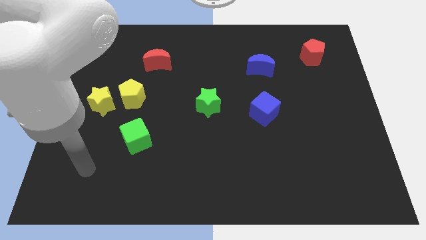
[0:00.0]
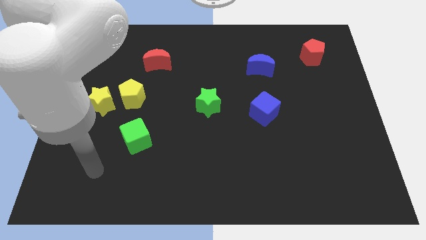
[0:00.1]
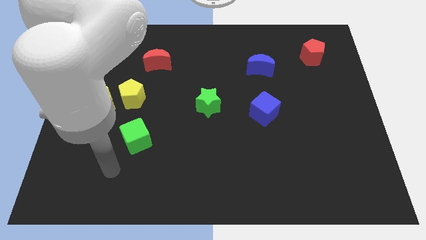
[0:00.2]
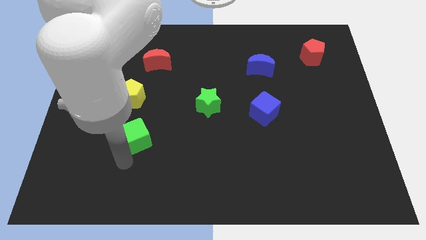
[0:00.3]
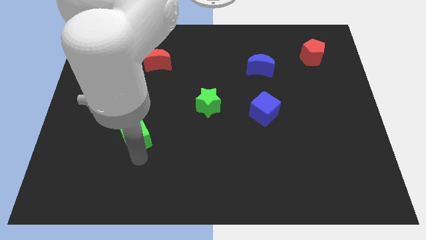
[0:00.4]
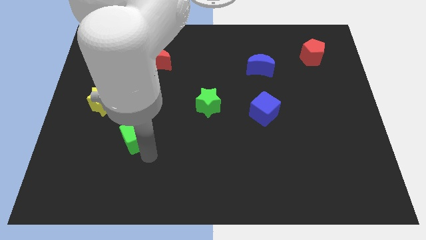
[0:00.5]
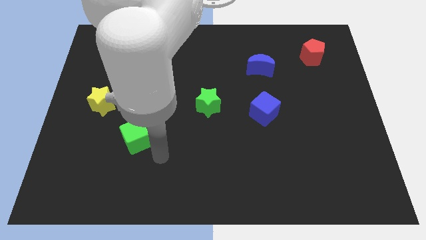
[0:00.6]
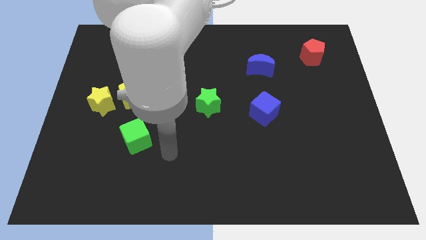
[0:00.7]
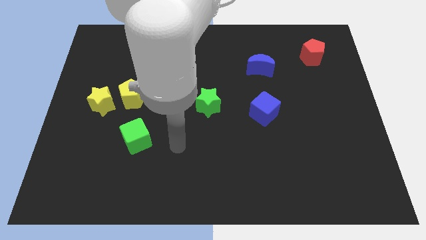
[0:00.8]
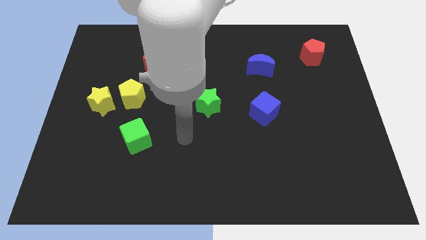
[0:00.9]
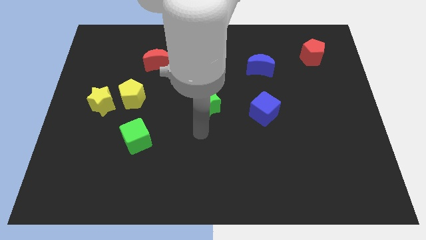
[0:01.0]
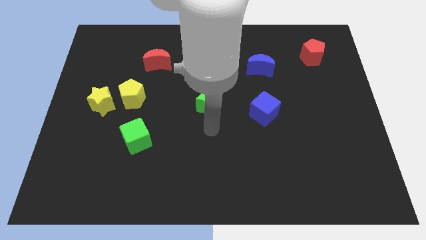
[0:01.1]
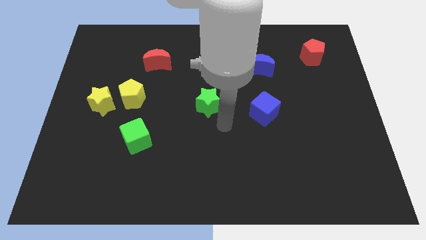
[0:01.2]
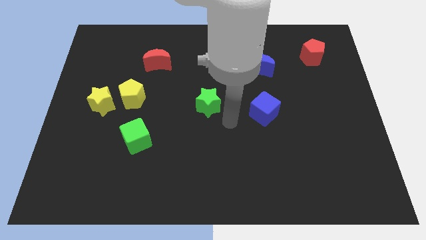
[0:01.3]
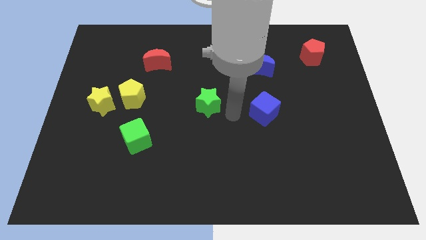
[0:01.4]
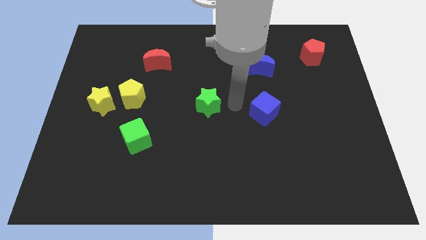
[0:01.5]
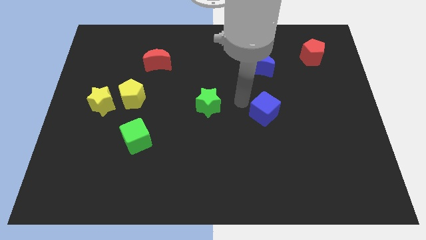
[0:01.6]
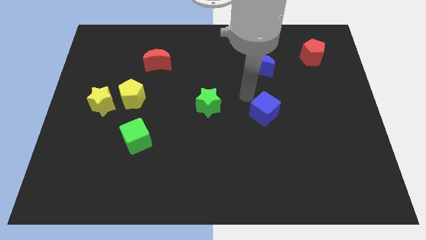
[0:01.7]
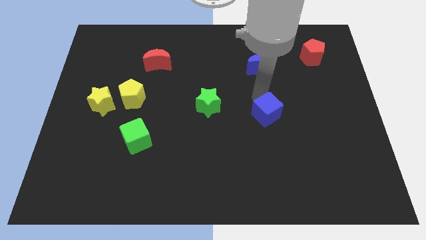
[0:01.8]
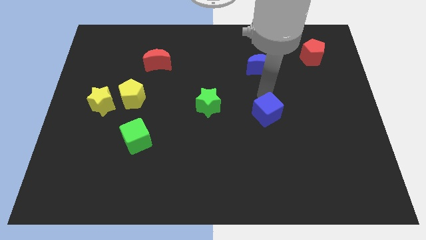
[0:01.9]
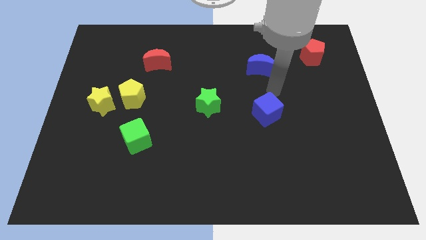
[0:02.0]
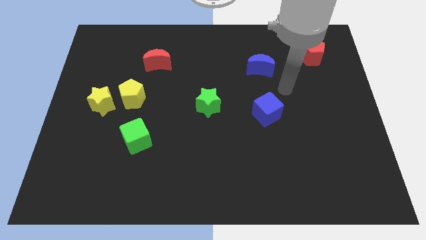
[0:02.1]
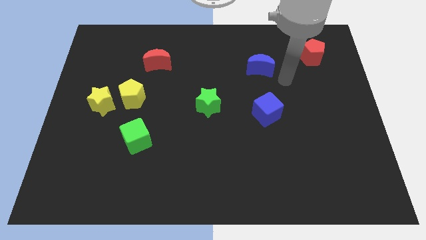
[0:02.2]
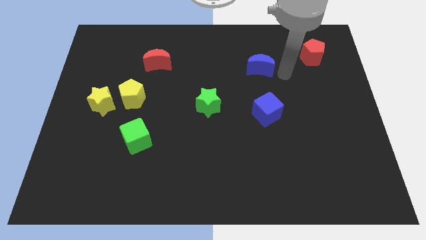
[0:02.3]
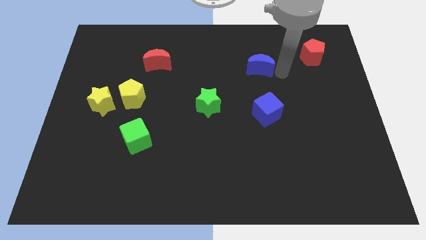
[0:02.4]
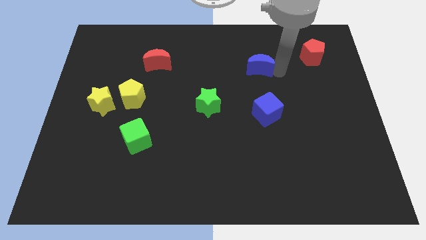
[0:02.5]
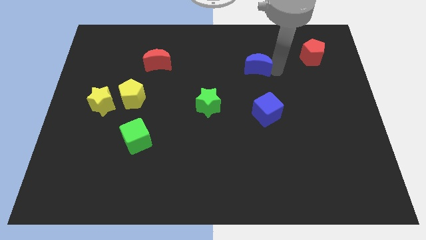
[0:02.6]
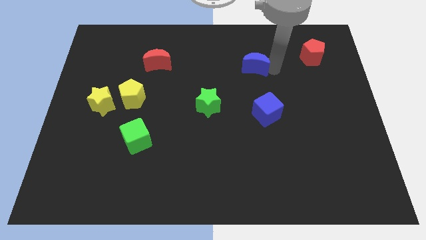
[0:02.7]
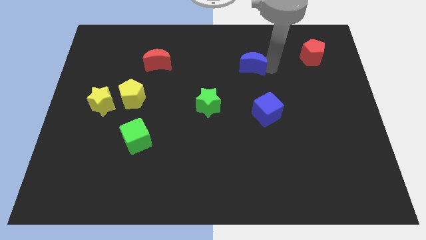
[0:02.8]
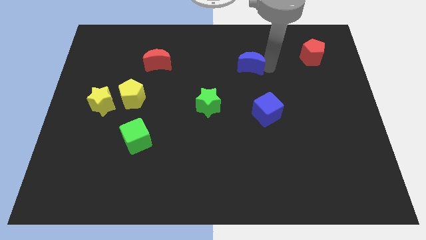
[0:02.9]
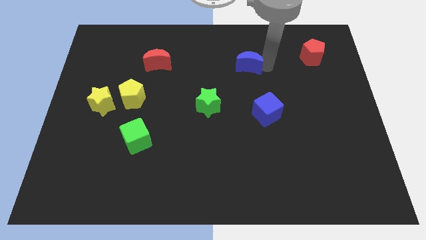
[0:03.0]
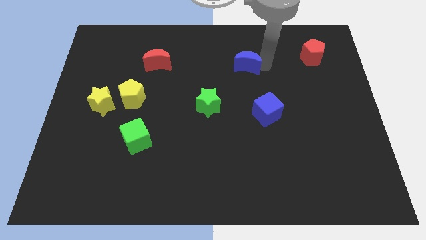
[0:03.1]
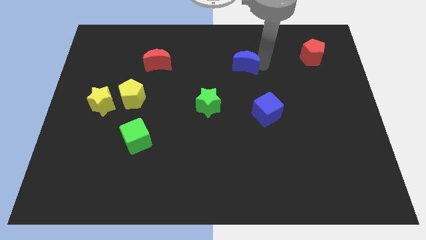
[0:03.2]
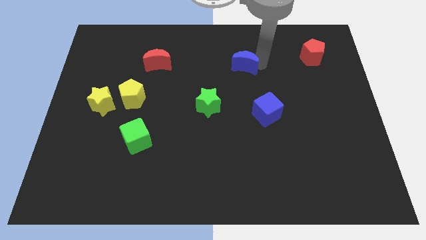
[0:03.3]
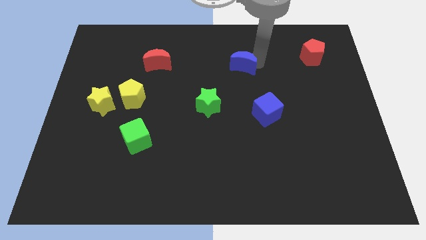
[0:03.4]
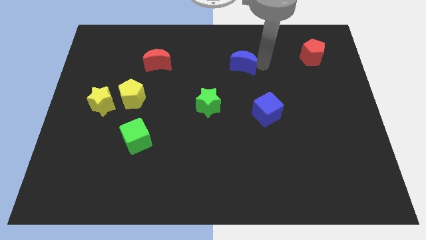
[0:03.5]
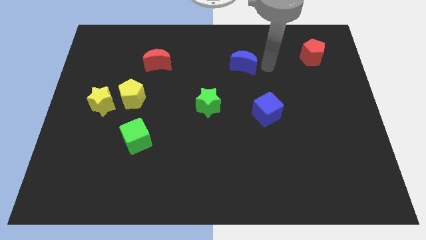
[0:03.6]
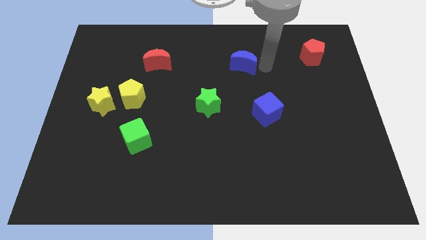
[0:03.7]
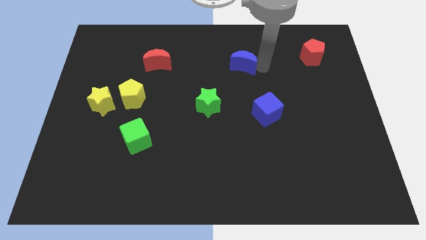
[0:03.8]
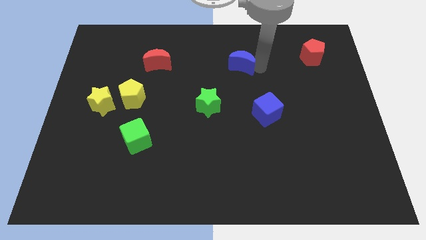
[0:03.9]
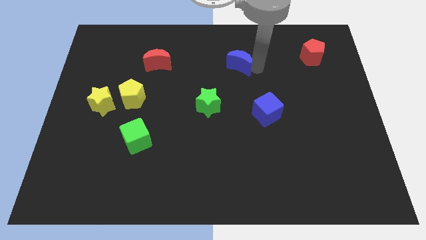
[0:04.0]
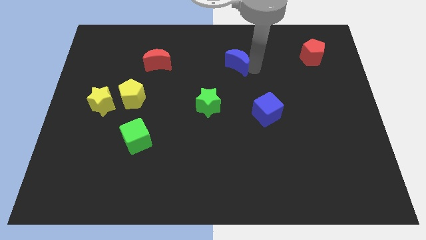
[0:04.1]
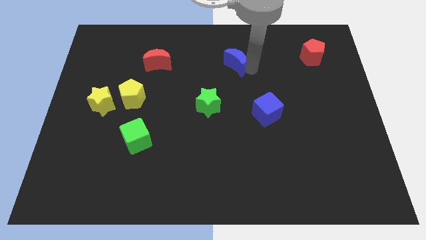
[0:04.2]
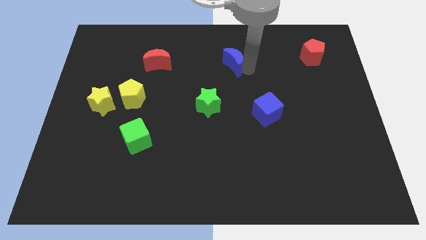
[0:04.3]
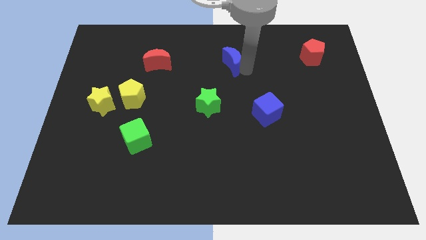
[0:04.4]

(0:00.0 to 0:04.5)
move the blue moon left somewhat

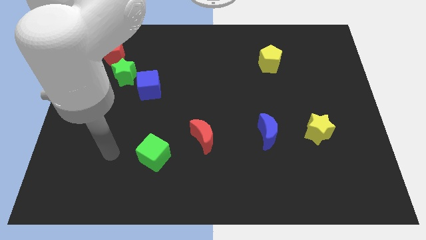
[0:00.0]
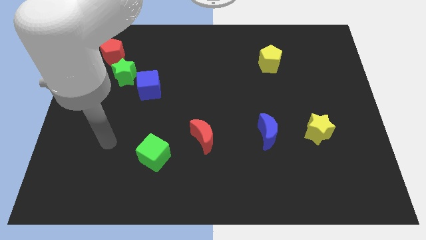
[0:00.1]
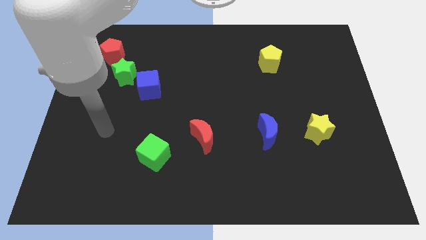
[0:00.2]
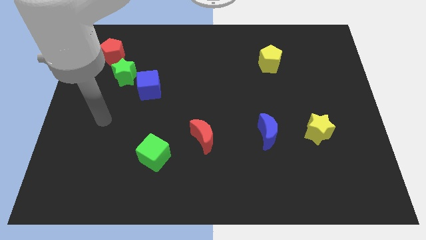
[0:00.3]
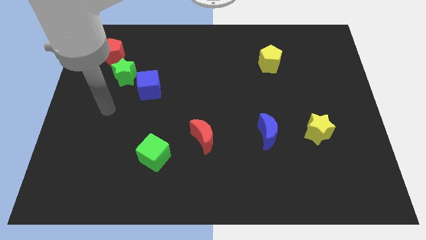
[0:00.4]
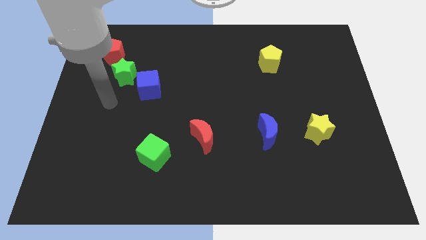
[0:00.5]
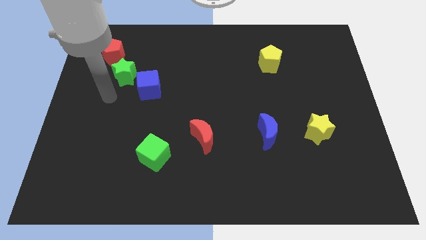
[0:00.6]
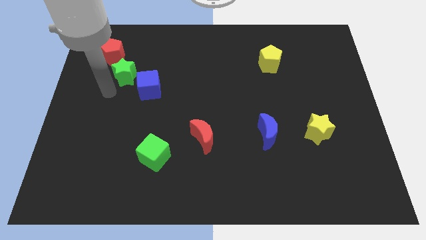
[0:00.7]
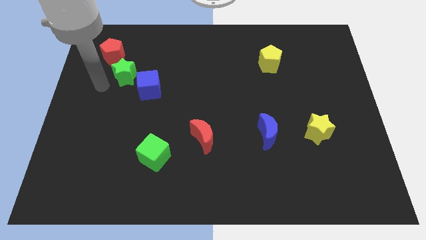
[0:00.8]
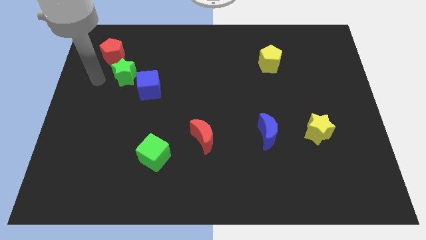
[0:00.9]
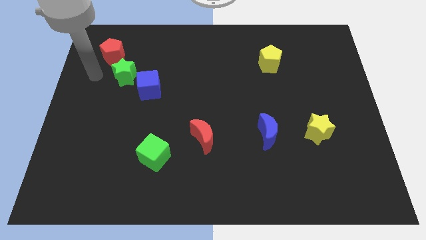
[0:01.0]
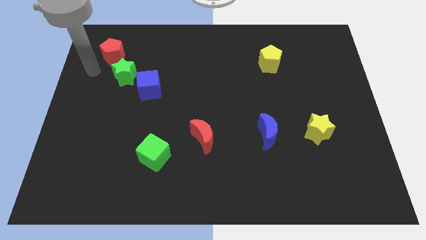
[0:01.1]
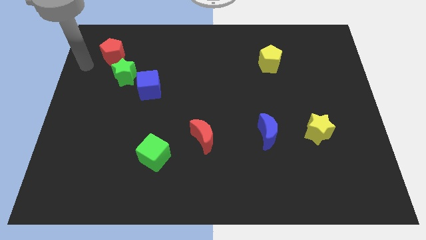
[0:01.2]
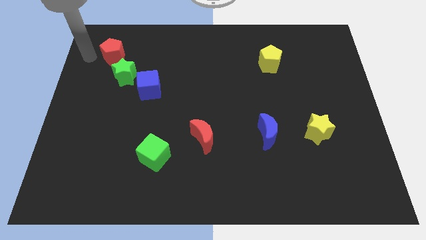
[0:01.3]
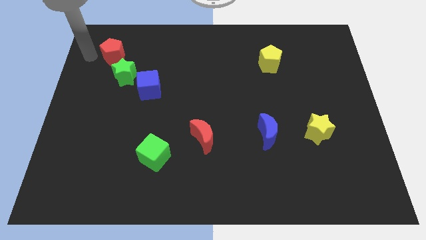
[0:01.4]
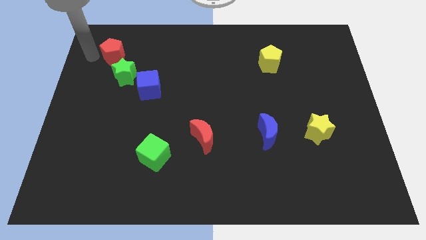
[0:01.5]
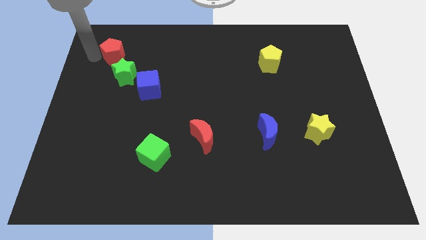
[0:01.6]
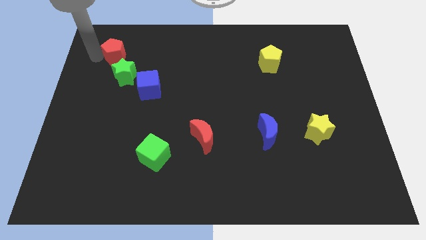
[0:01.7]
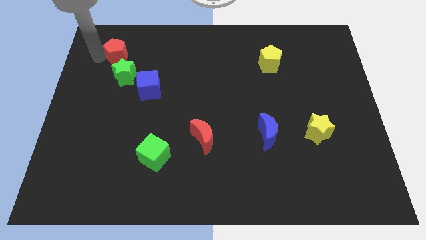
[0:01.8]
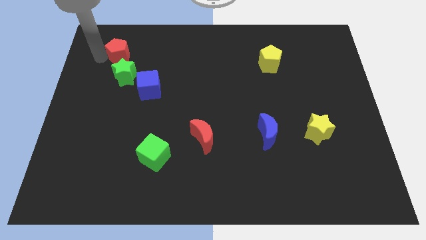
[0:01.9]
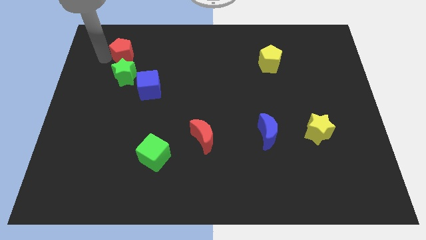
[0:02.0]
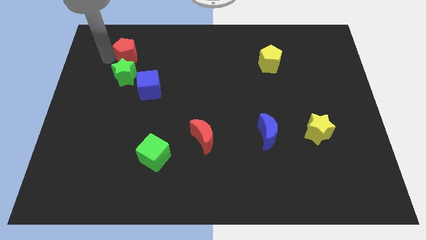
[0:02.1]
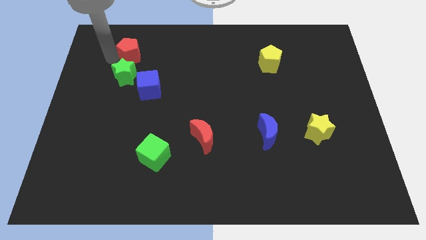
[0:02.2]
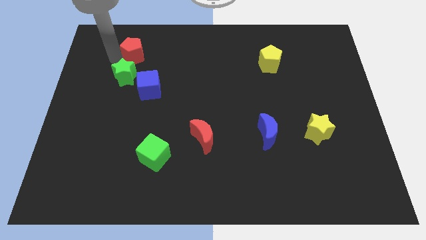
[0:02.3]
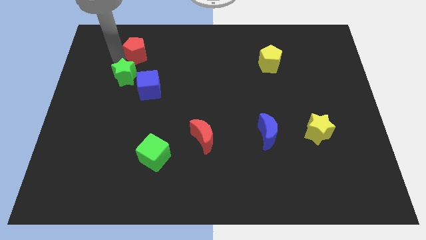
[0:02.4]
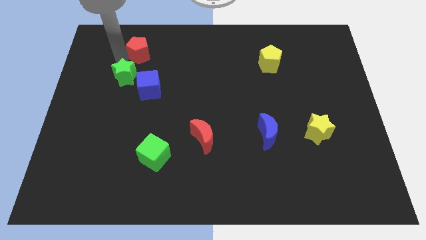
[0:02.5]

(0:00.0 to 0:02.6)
push the red pentagon to the right a bit

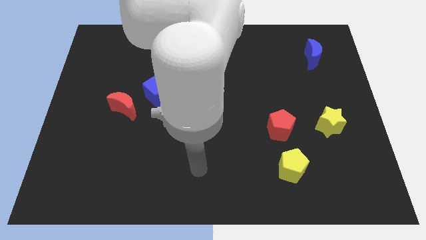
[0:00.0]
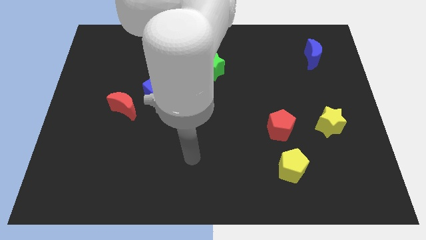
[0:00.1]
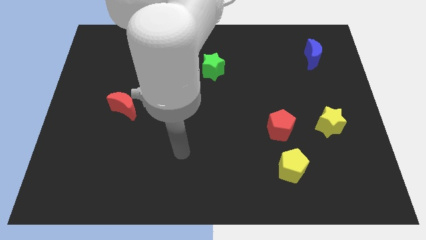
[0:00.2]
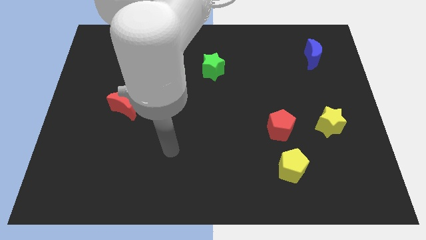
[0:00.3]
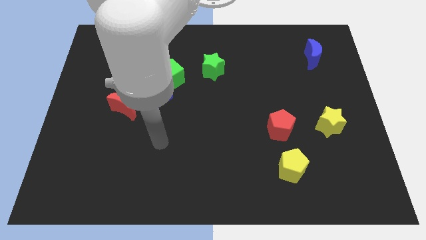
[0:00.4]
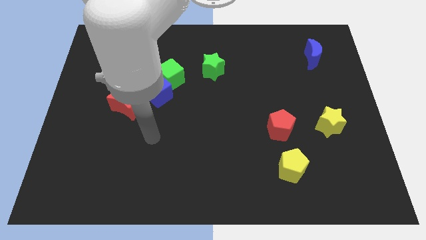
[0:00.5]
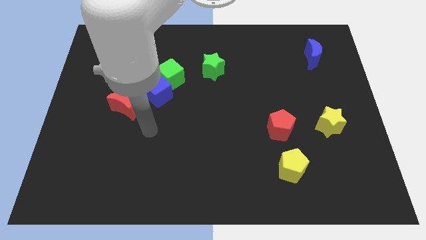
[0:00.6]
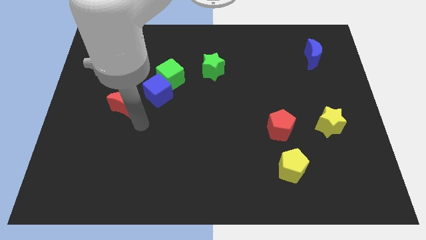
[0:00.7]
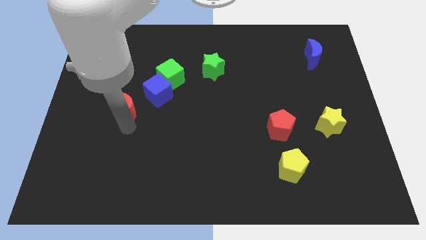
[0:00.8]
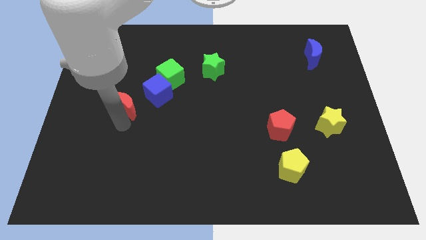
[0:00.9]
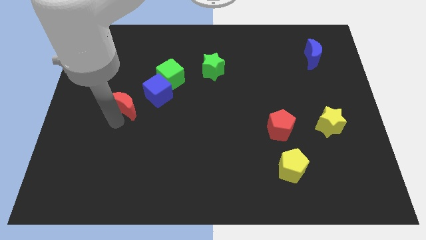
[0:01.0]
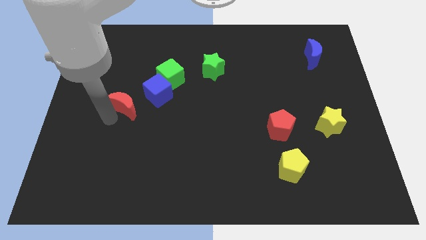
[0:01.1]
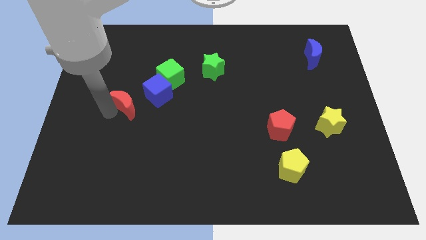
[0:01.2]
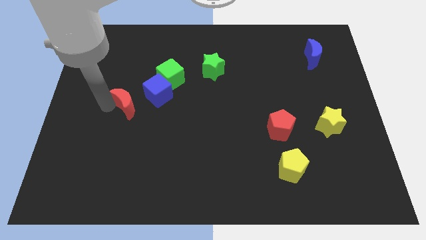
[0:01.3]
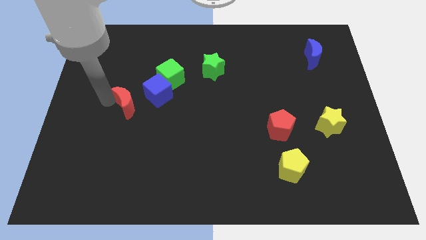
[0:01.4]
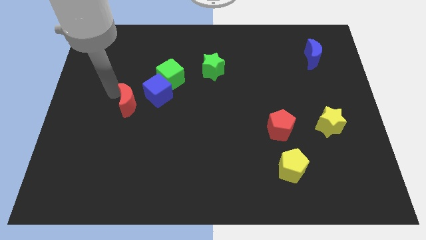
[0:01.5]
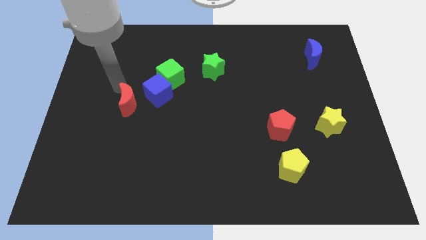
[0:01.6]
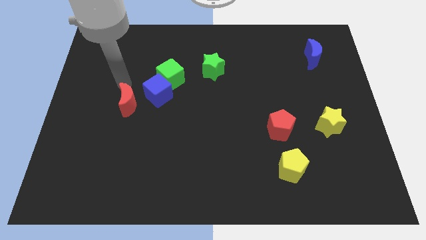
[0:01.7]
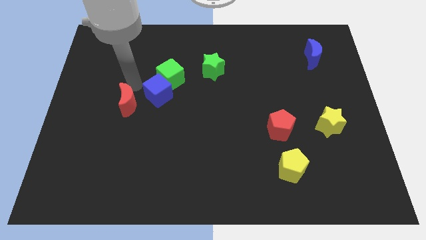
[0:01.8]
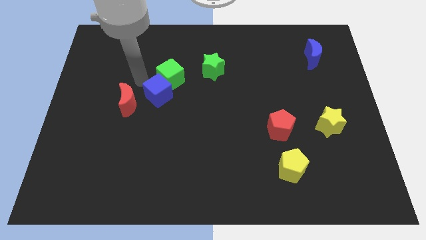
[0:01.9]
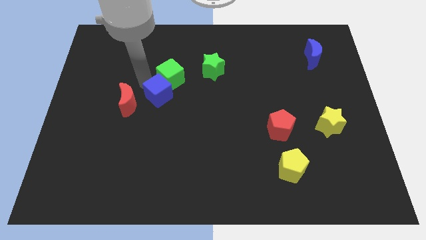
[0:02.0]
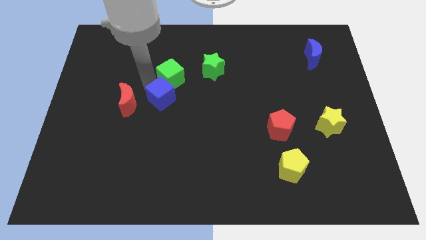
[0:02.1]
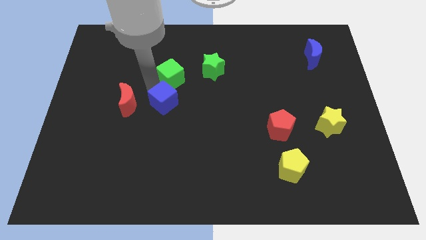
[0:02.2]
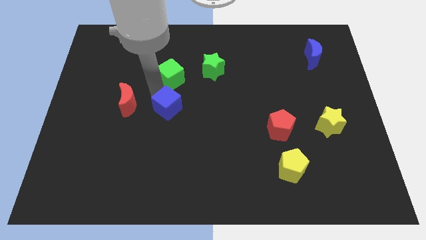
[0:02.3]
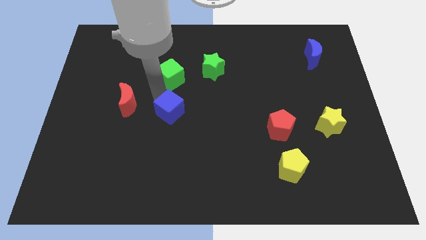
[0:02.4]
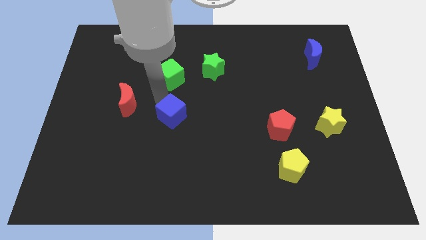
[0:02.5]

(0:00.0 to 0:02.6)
move the blue cube a bit down and to the right
